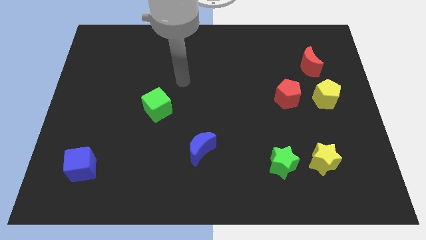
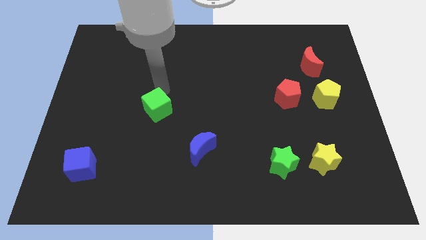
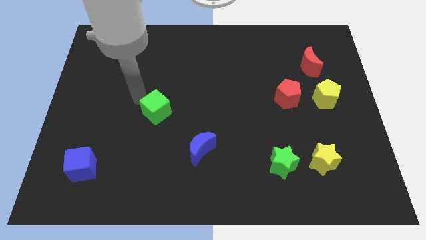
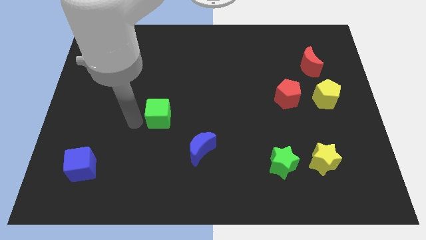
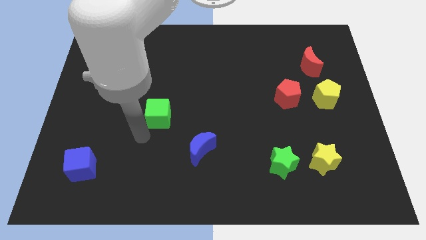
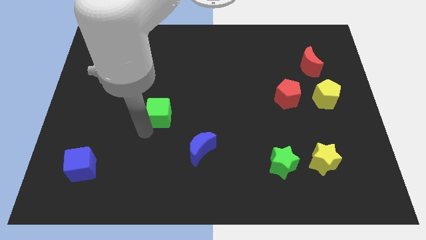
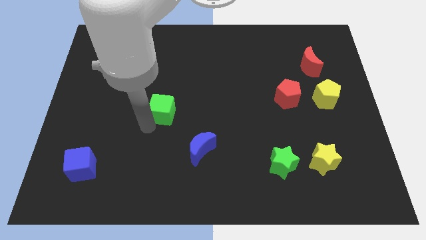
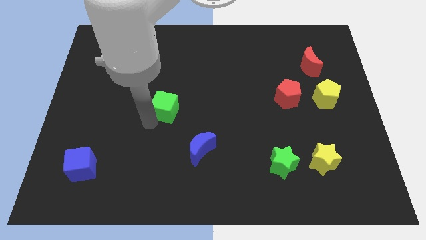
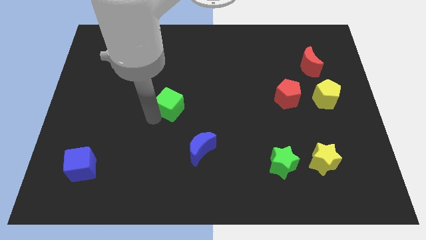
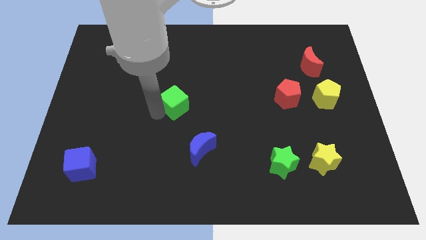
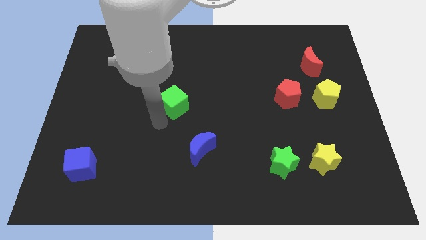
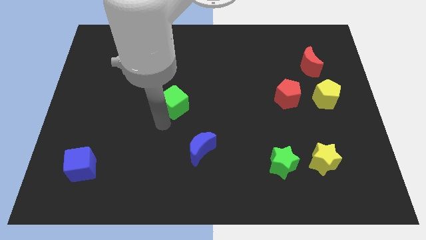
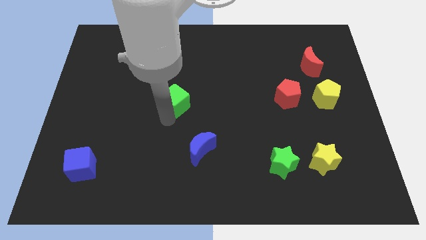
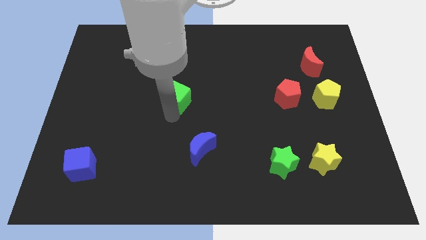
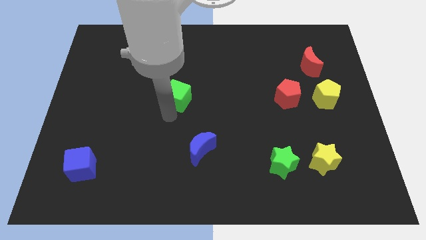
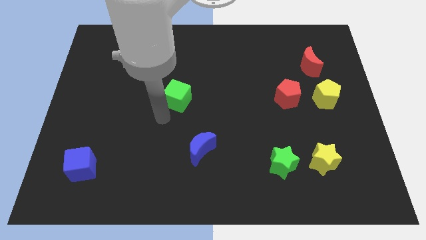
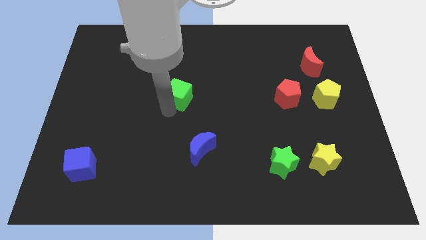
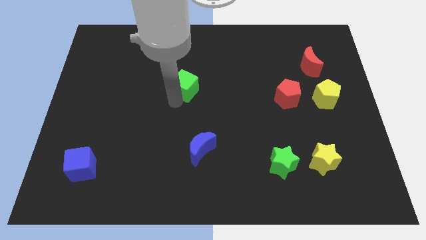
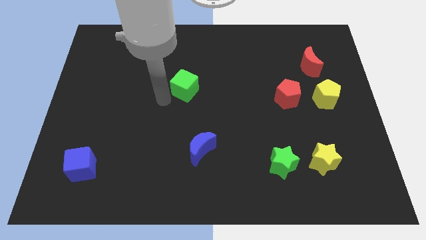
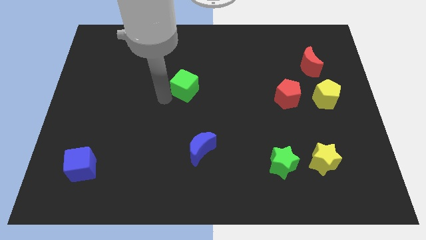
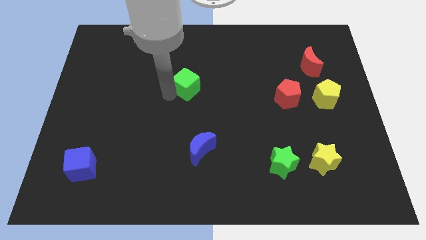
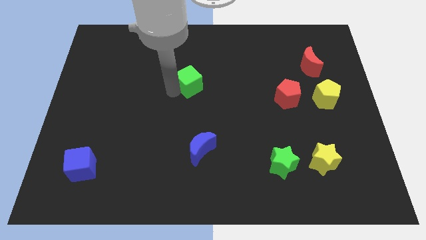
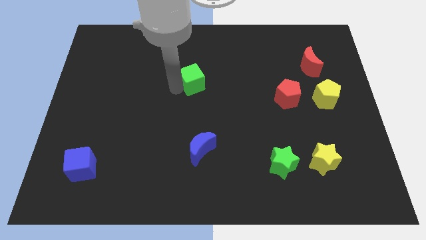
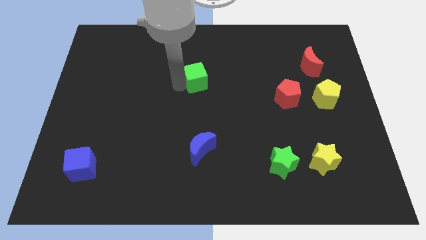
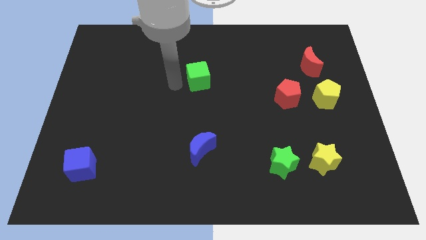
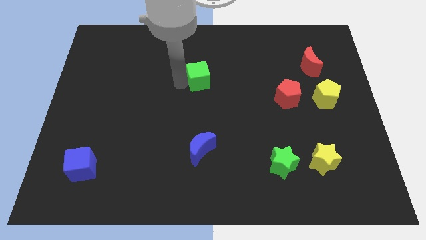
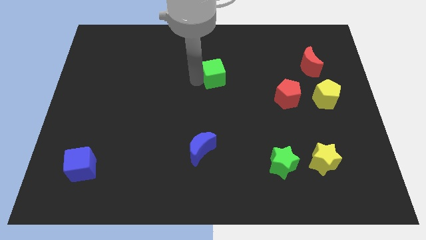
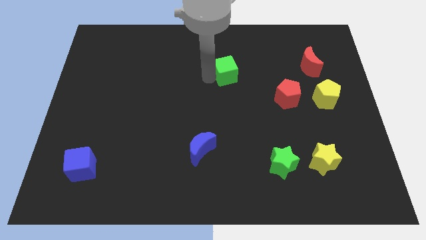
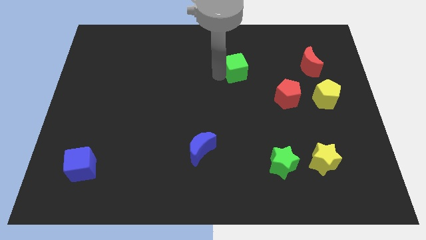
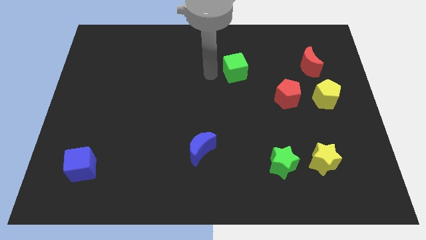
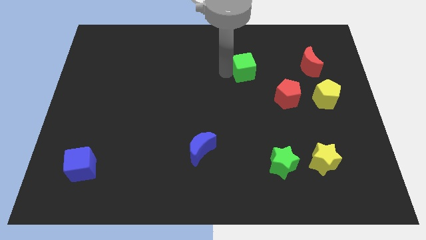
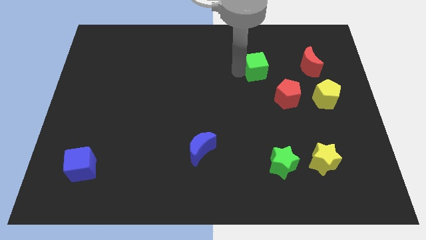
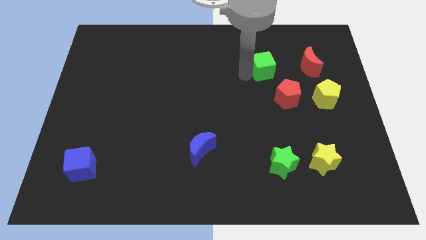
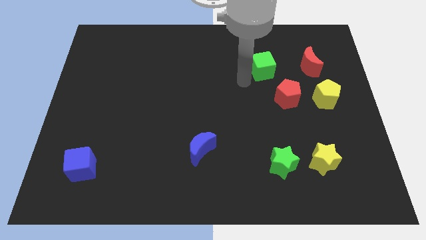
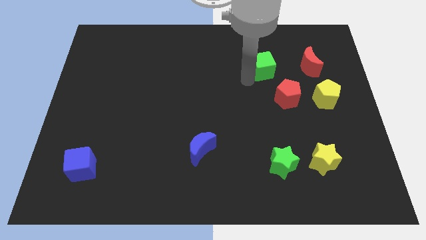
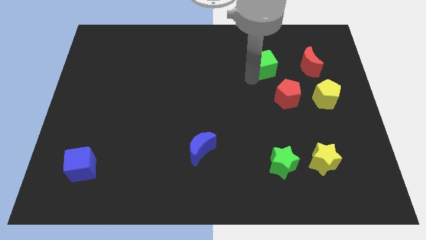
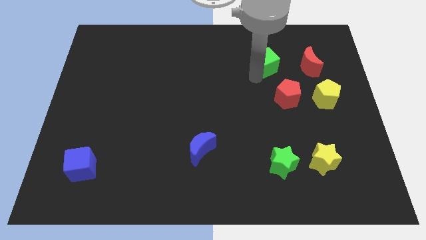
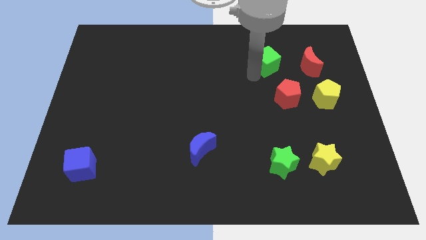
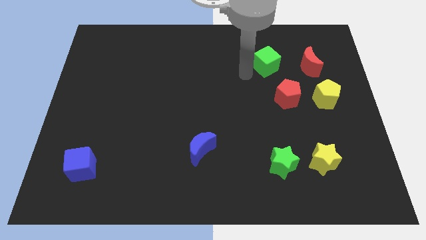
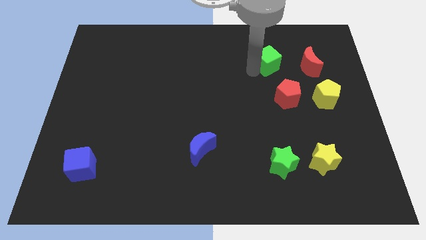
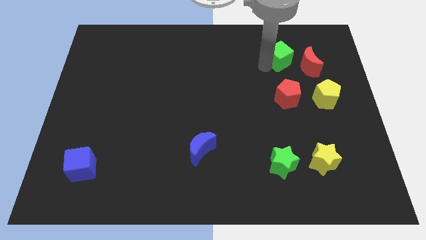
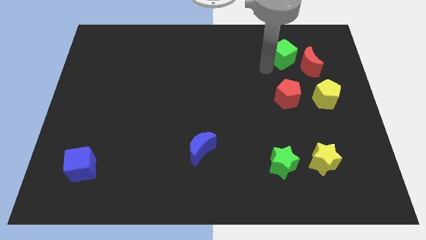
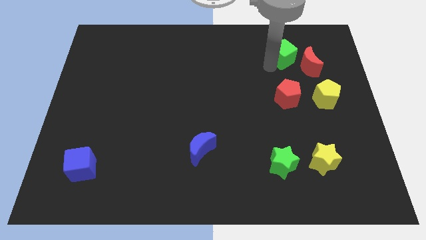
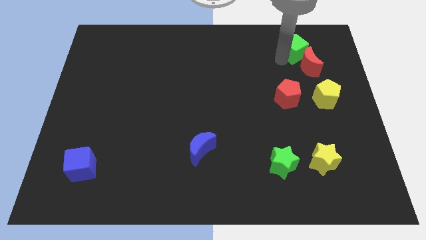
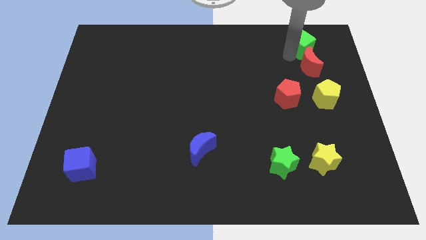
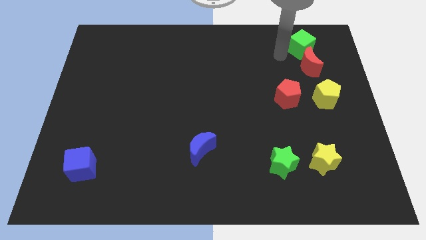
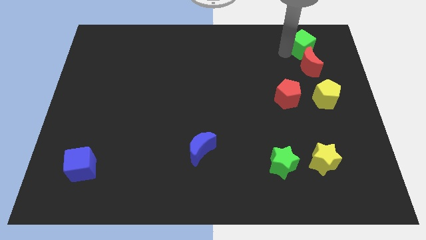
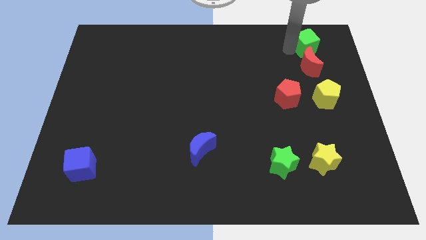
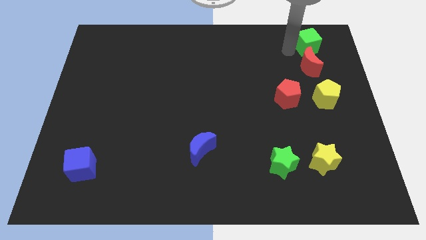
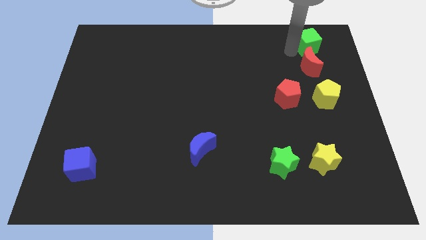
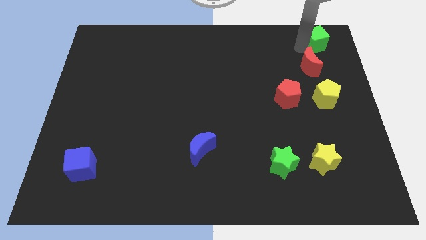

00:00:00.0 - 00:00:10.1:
push the green cube to the top right of the board

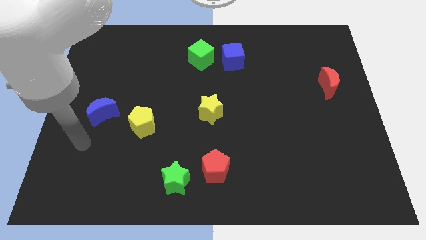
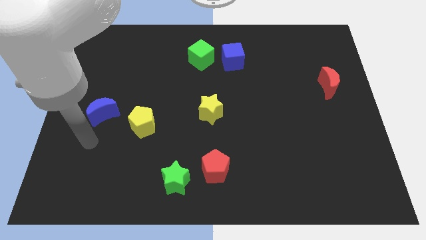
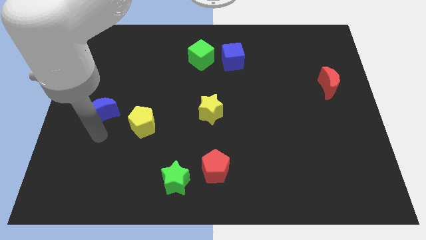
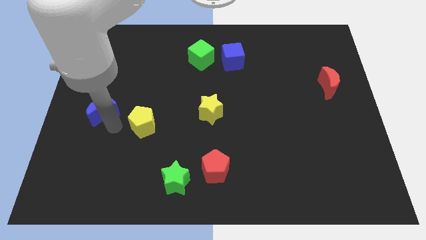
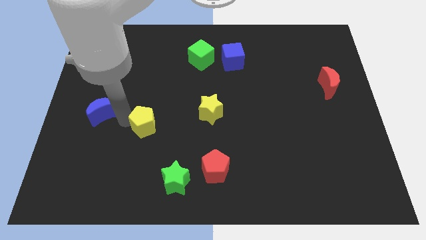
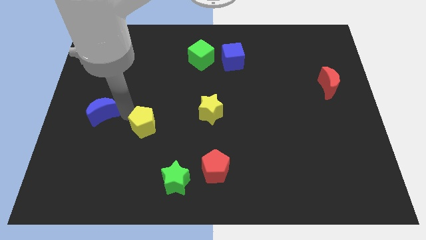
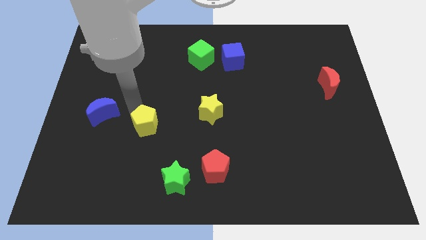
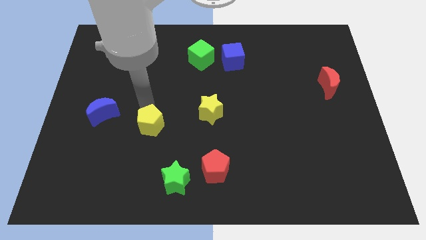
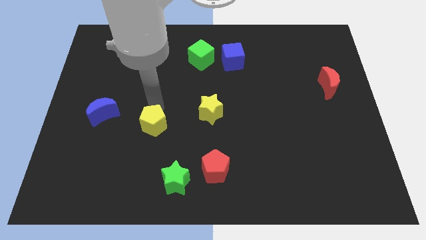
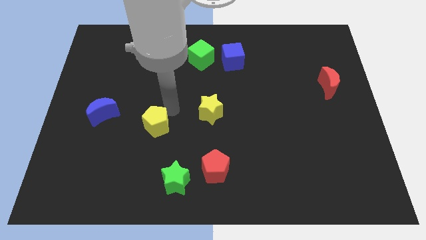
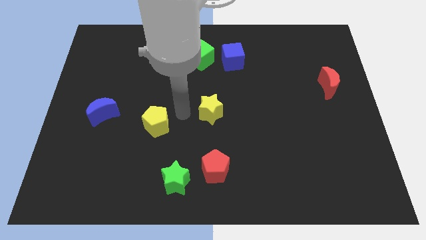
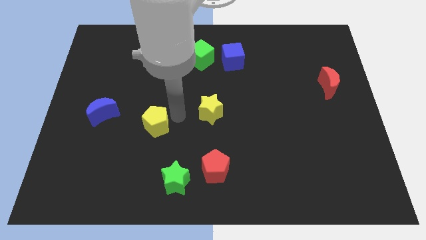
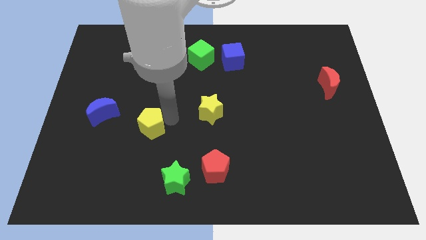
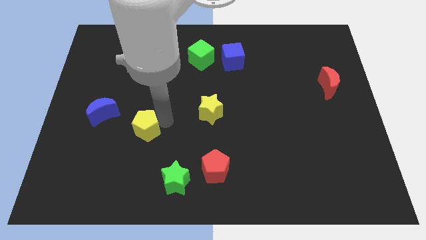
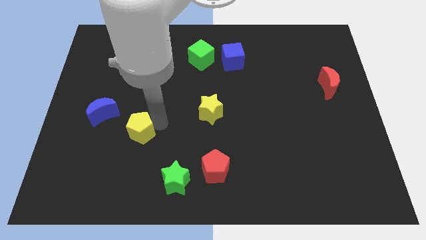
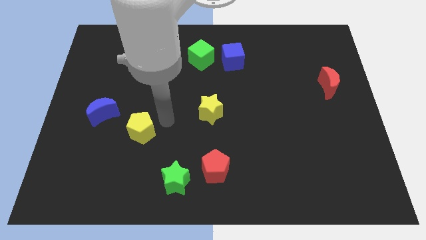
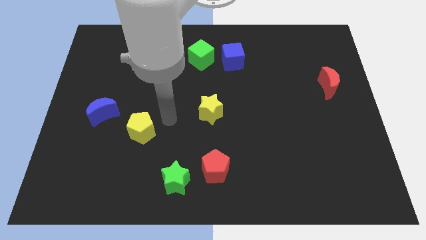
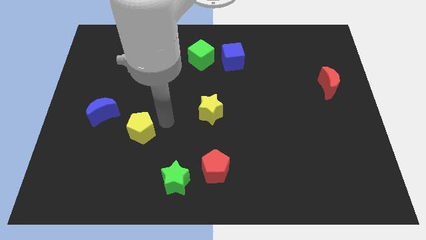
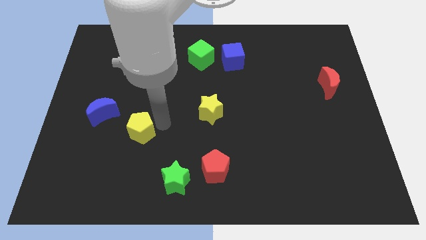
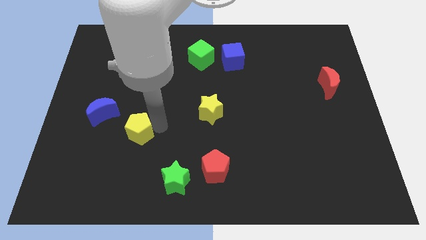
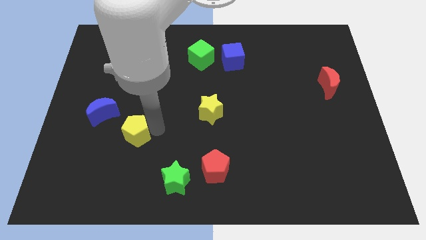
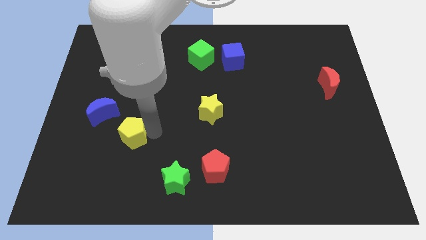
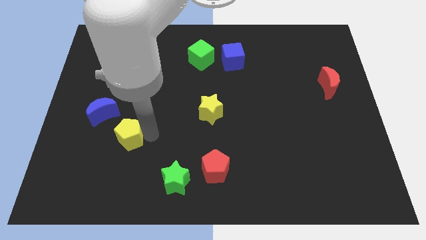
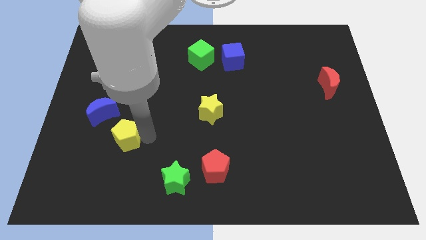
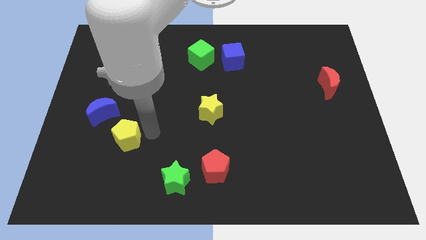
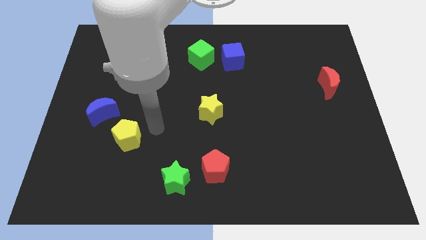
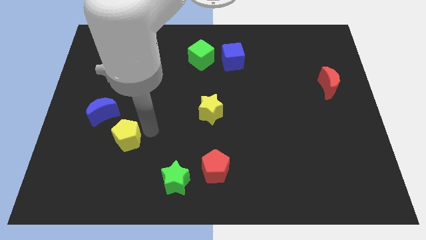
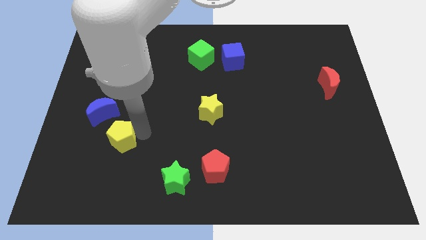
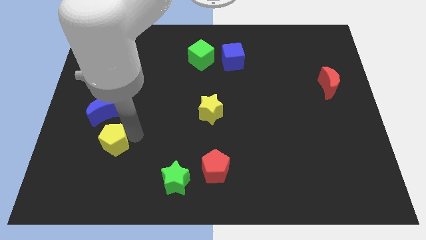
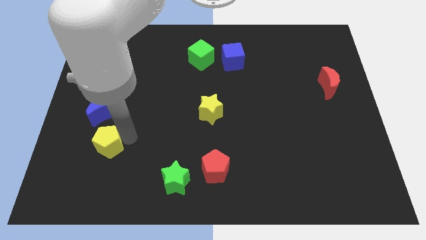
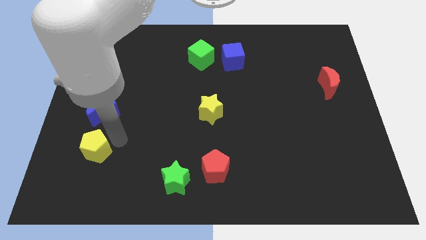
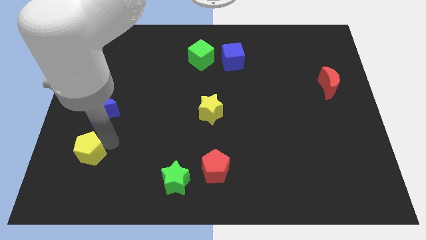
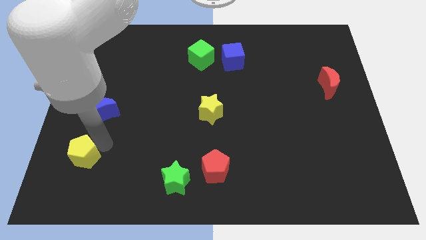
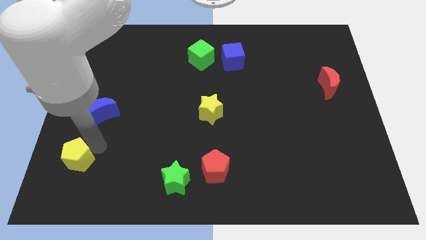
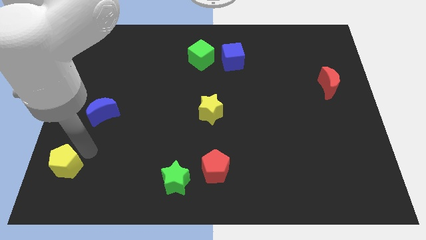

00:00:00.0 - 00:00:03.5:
slide the yellow pentagon to the bottom left of the board
